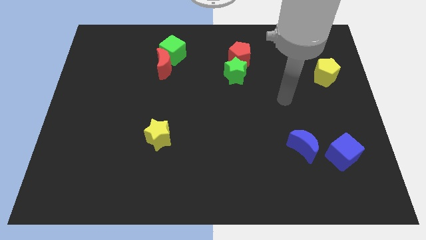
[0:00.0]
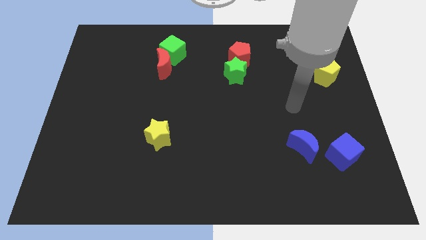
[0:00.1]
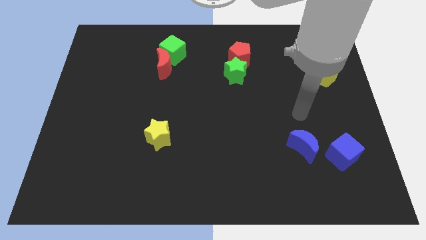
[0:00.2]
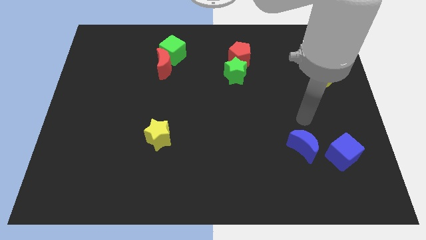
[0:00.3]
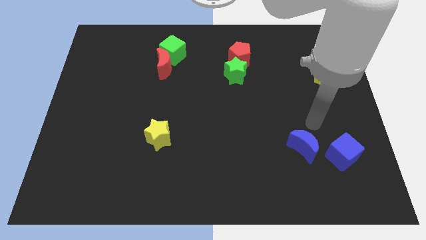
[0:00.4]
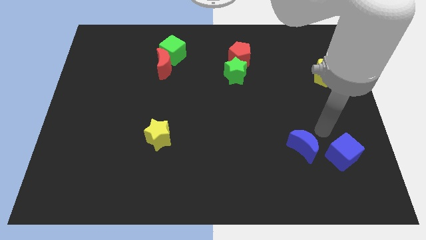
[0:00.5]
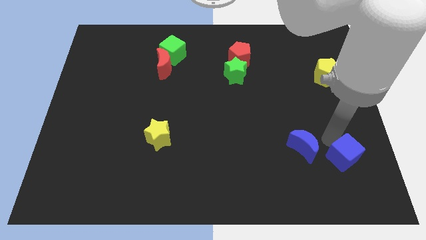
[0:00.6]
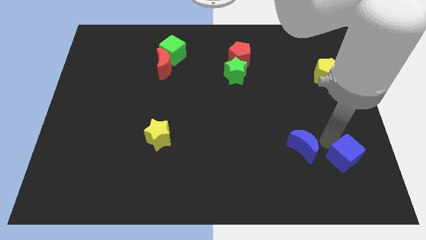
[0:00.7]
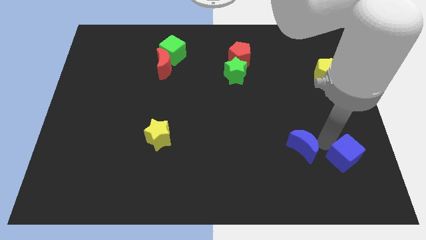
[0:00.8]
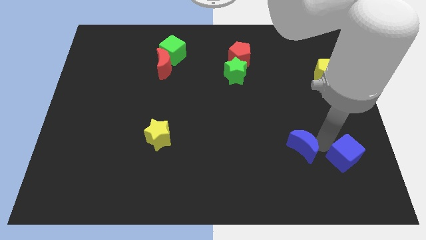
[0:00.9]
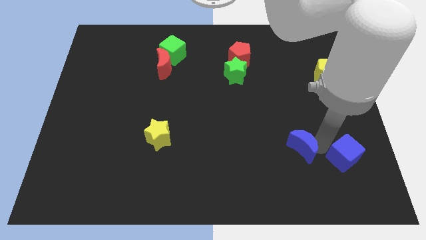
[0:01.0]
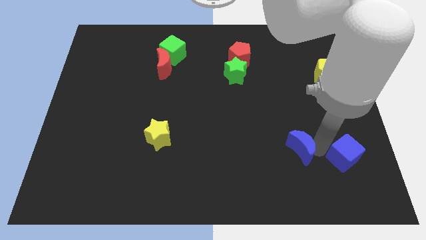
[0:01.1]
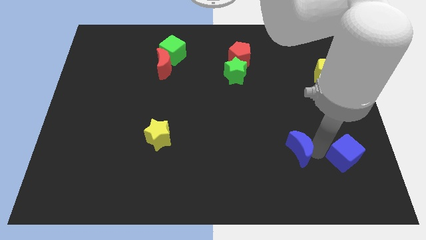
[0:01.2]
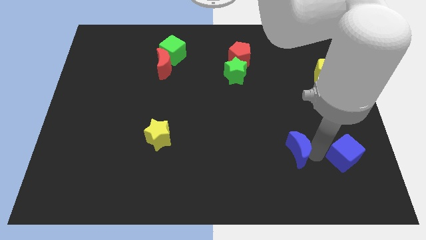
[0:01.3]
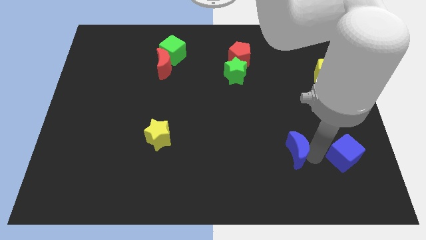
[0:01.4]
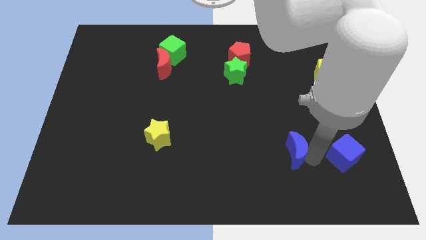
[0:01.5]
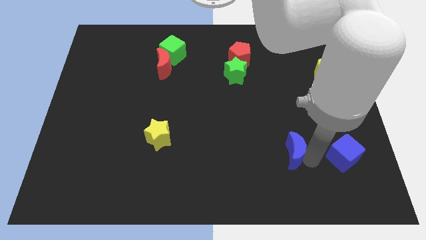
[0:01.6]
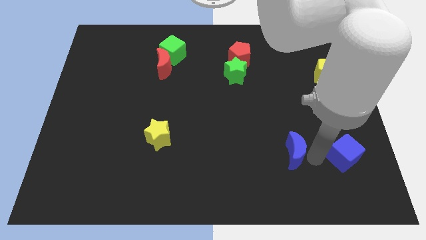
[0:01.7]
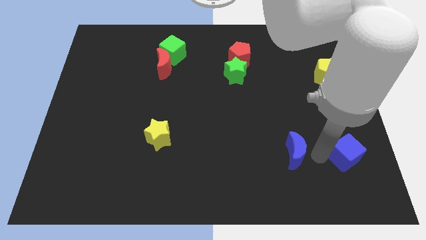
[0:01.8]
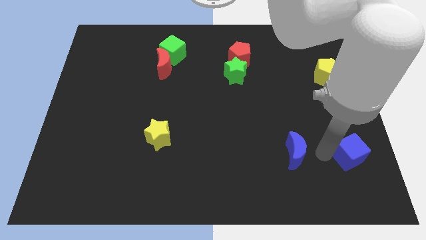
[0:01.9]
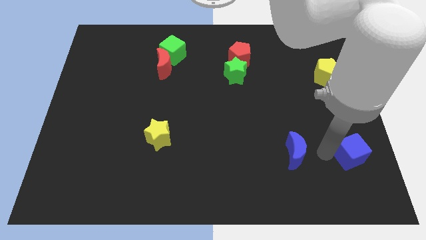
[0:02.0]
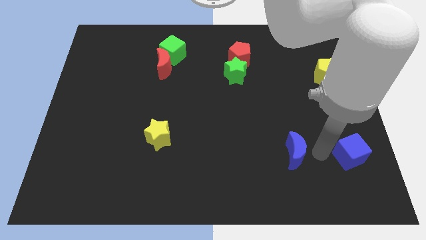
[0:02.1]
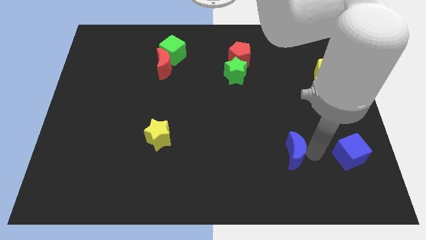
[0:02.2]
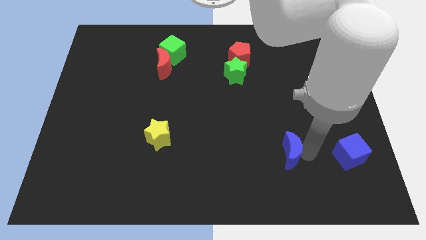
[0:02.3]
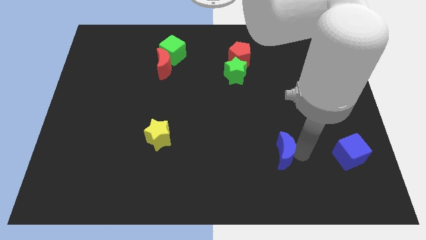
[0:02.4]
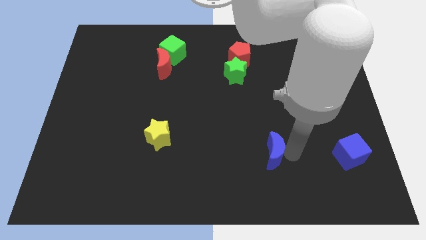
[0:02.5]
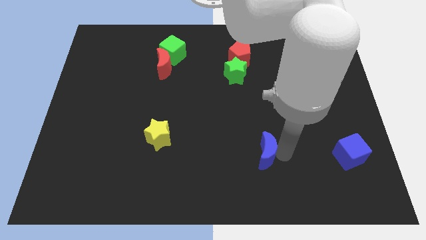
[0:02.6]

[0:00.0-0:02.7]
slightly move the blue moon left

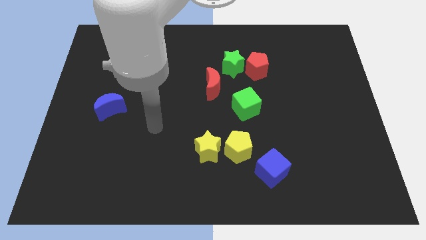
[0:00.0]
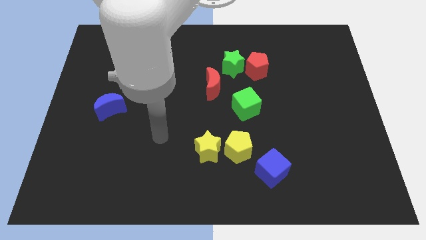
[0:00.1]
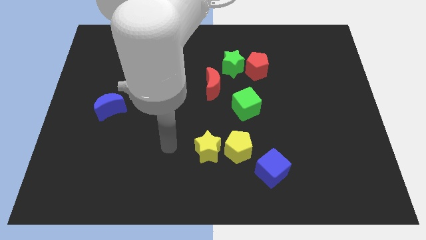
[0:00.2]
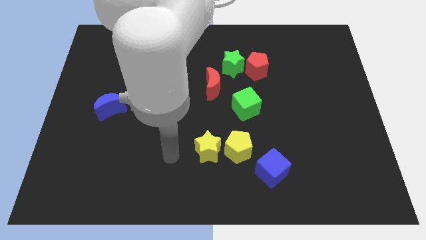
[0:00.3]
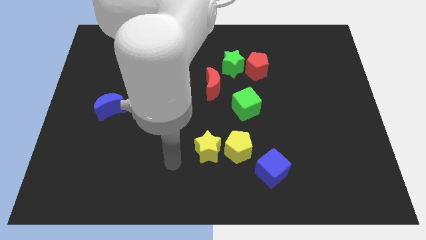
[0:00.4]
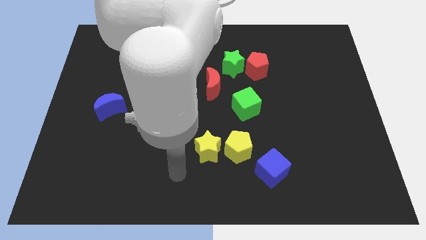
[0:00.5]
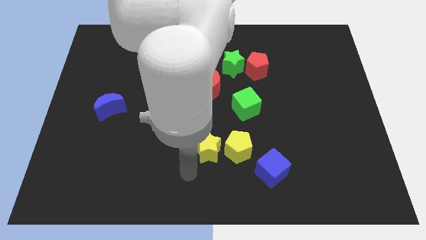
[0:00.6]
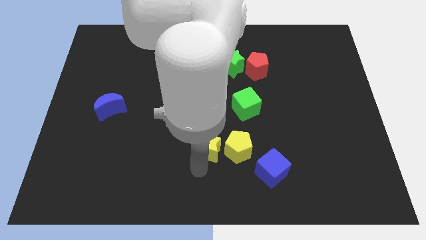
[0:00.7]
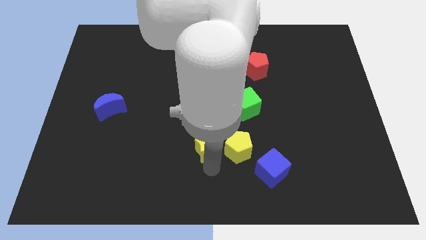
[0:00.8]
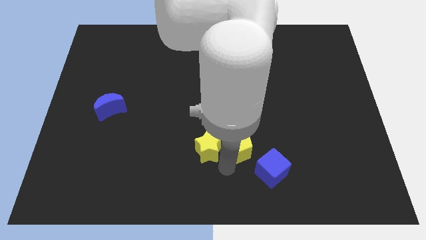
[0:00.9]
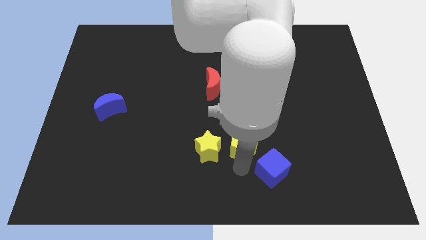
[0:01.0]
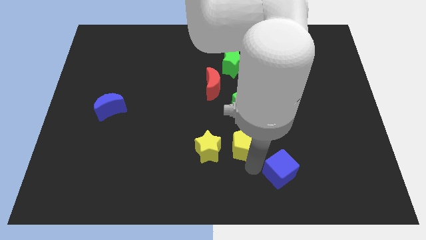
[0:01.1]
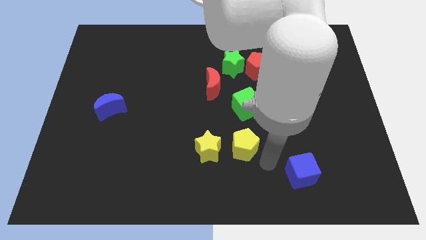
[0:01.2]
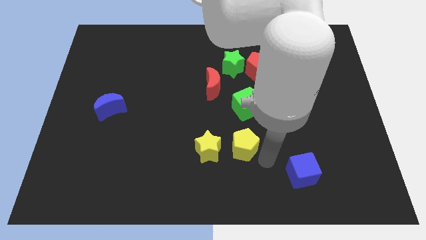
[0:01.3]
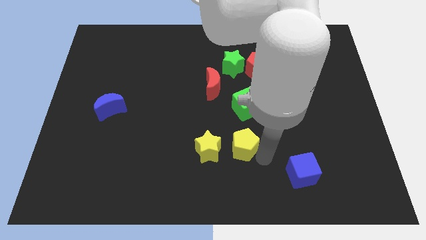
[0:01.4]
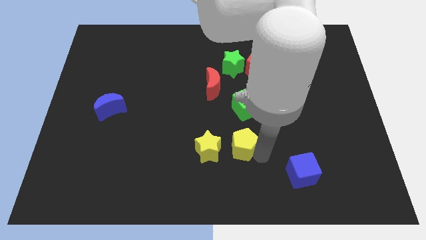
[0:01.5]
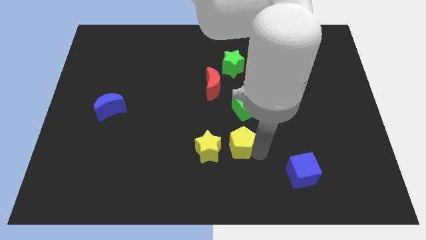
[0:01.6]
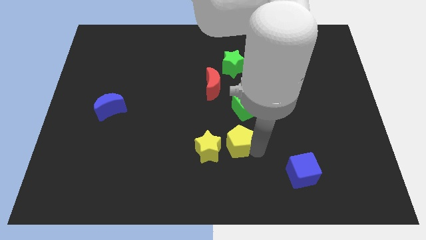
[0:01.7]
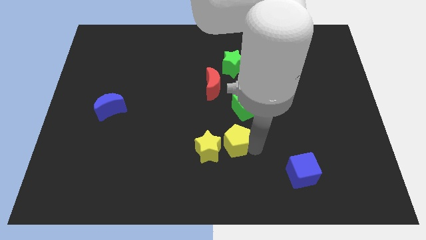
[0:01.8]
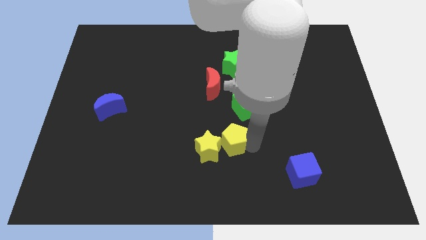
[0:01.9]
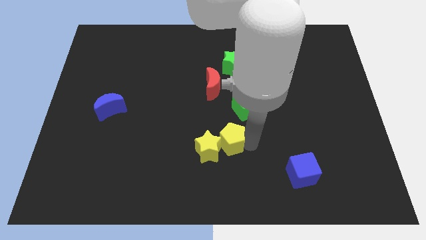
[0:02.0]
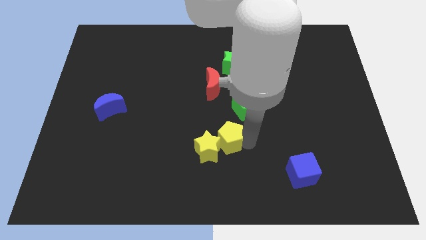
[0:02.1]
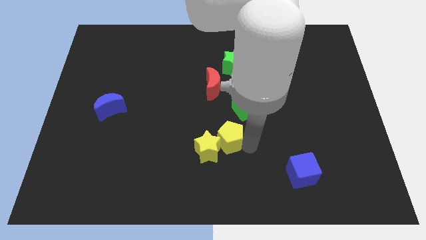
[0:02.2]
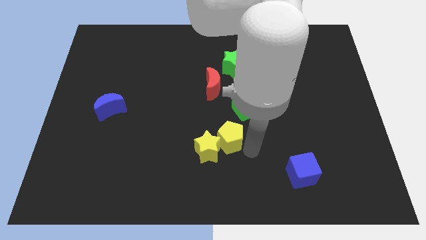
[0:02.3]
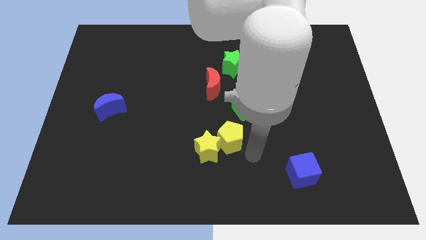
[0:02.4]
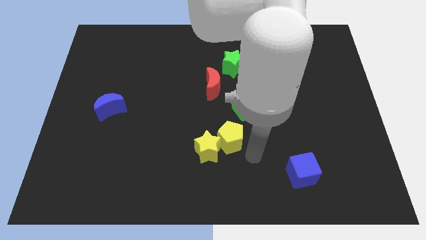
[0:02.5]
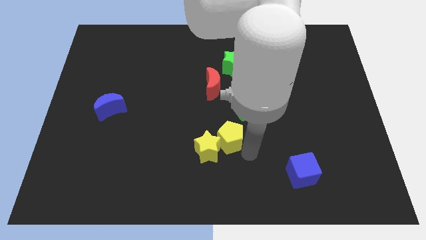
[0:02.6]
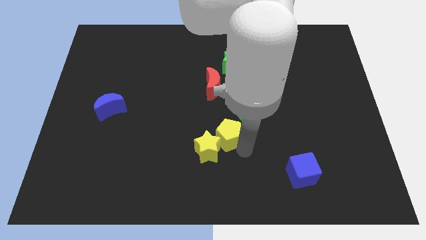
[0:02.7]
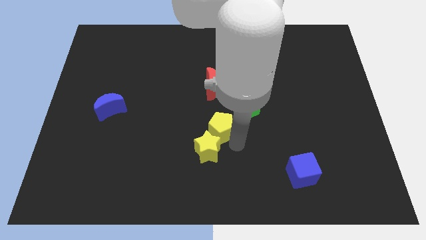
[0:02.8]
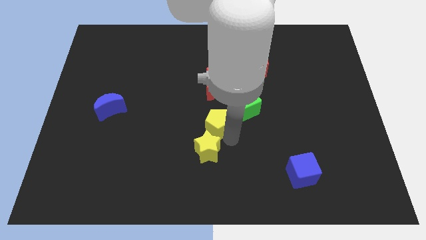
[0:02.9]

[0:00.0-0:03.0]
push the yellow pentagon upwards and to the left diagonally somewhat

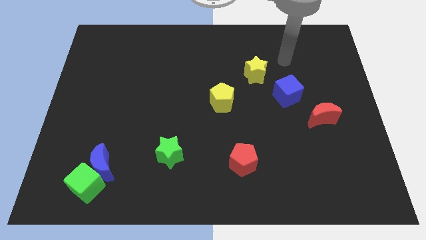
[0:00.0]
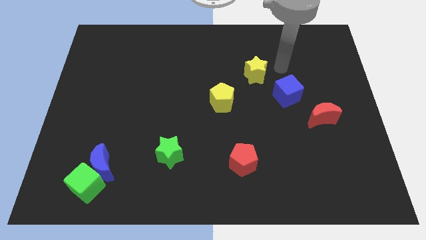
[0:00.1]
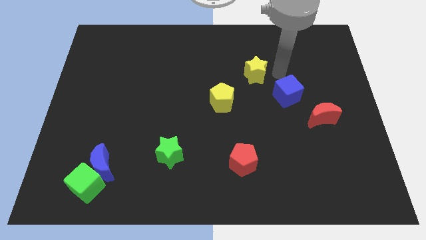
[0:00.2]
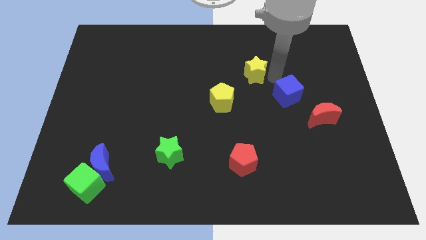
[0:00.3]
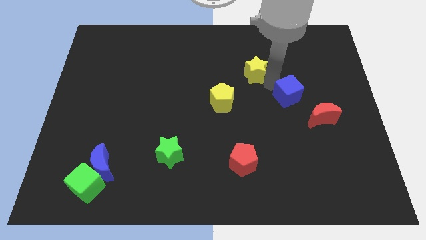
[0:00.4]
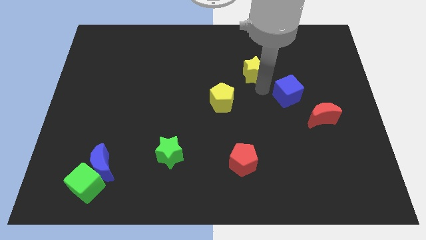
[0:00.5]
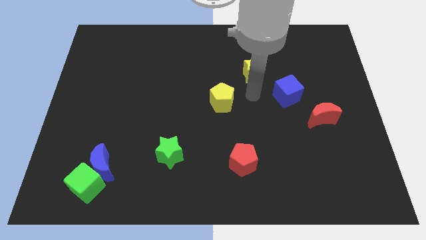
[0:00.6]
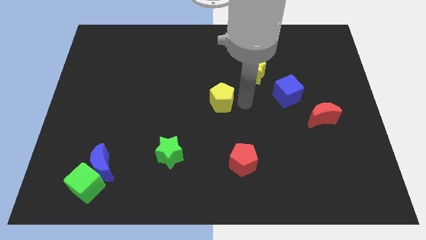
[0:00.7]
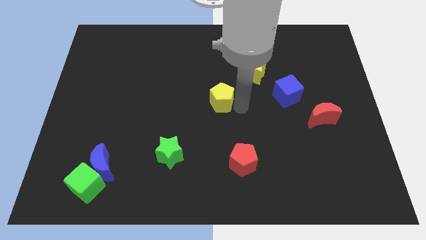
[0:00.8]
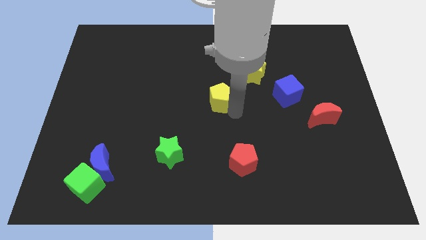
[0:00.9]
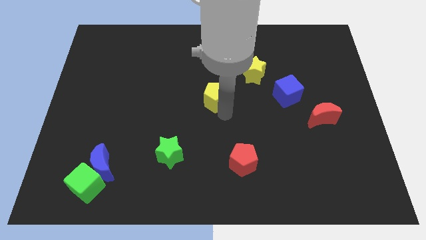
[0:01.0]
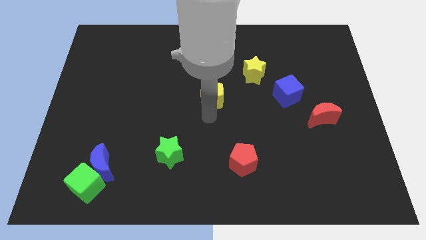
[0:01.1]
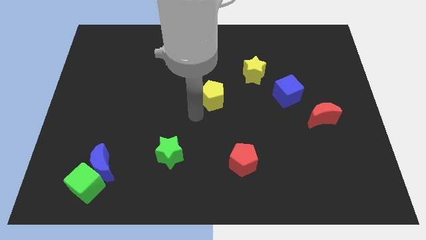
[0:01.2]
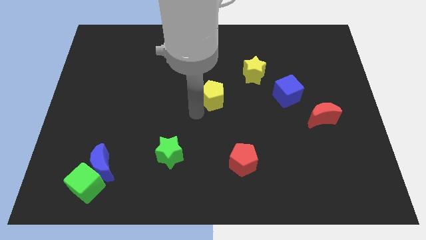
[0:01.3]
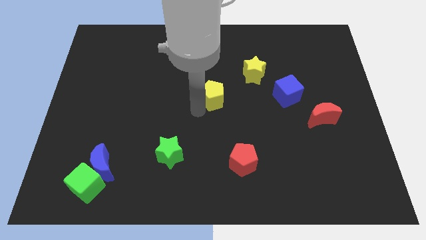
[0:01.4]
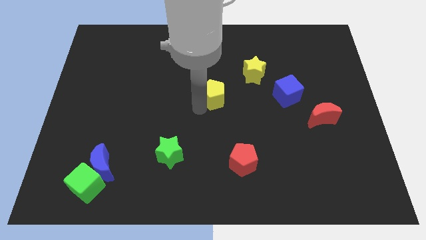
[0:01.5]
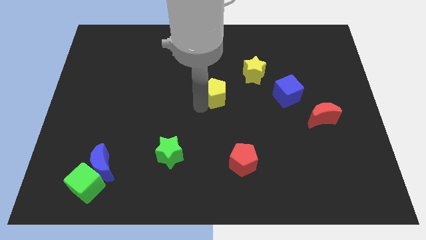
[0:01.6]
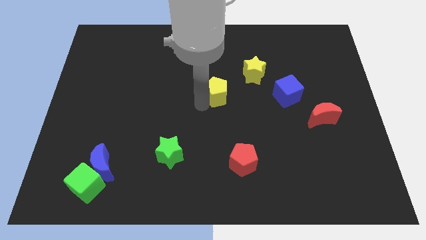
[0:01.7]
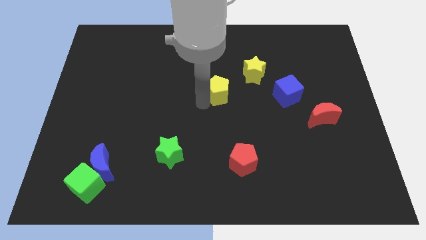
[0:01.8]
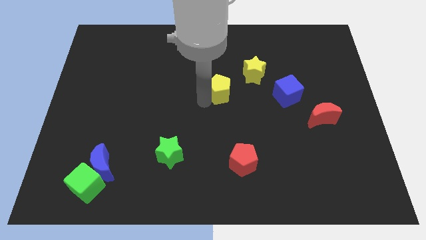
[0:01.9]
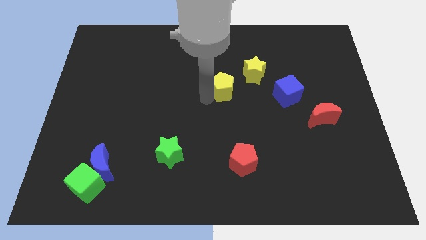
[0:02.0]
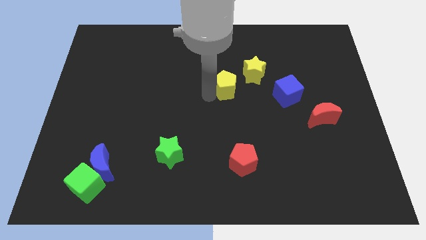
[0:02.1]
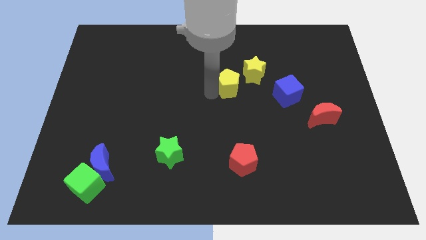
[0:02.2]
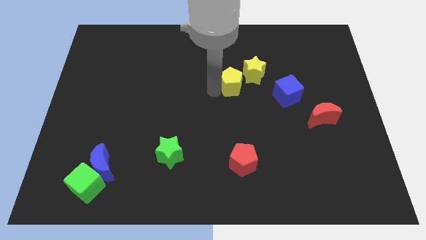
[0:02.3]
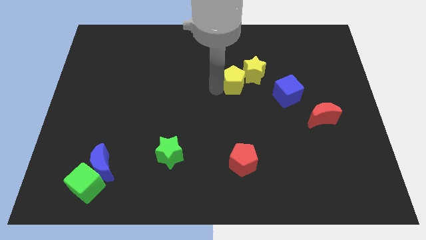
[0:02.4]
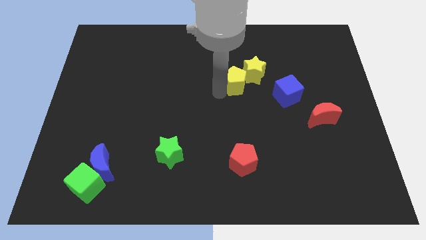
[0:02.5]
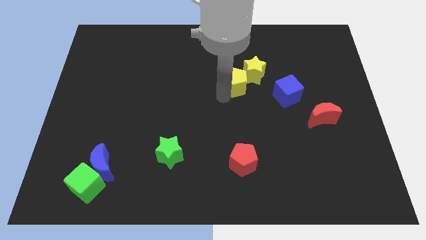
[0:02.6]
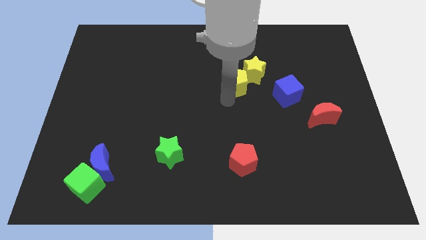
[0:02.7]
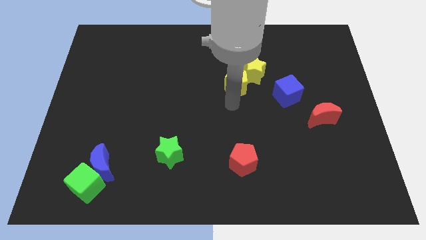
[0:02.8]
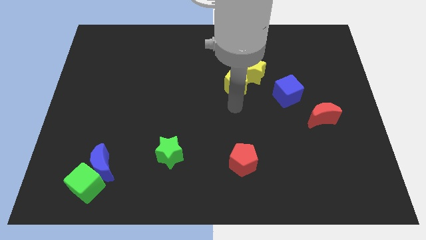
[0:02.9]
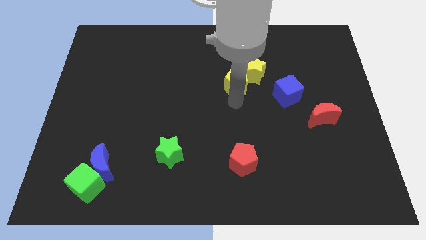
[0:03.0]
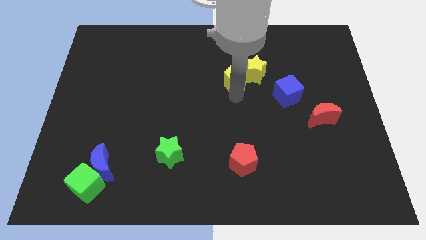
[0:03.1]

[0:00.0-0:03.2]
slightly slide the yellow pentagon diagonally up and to the right
